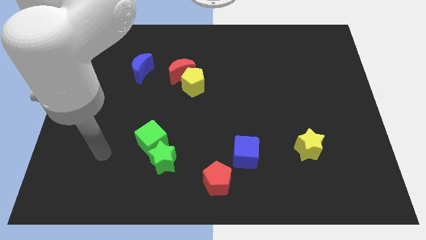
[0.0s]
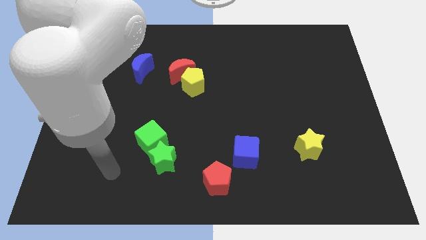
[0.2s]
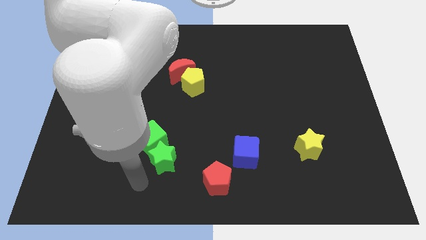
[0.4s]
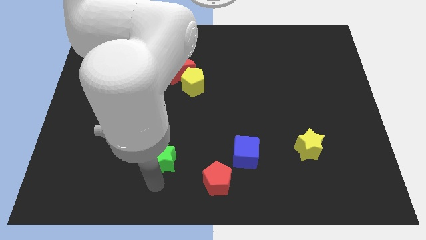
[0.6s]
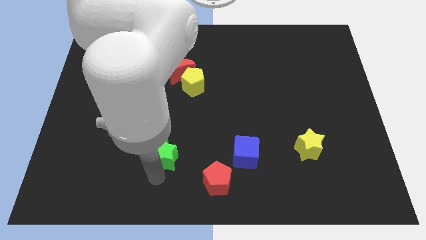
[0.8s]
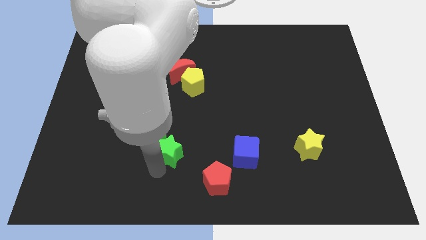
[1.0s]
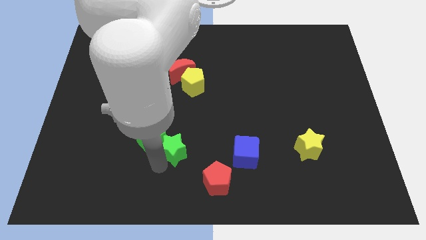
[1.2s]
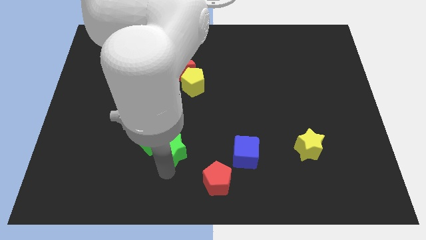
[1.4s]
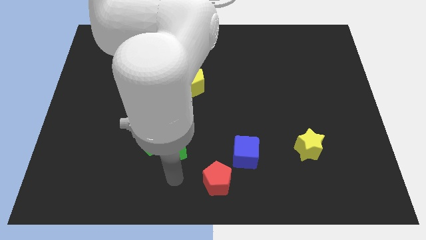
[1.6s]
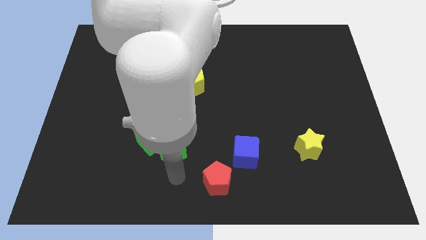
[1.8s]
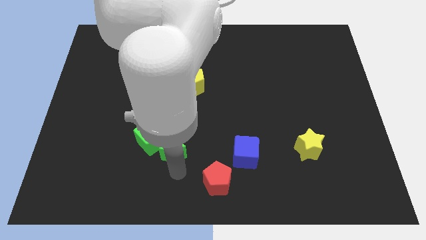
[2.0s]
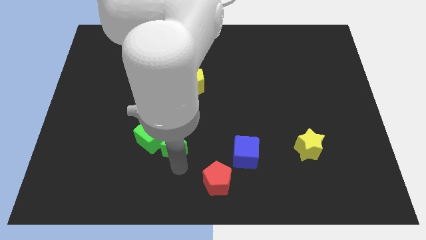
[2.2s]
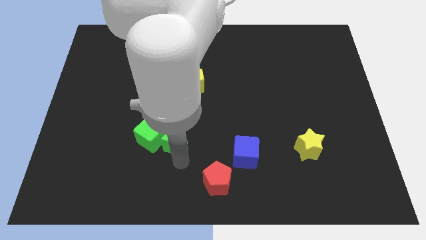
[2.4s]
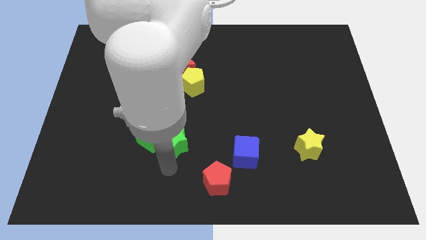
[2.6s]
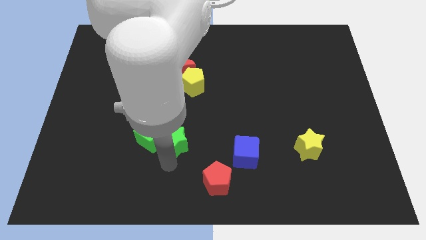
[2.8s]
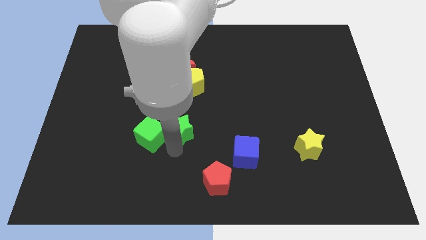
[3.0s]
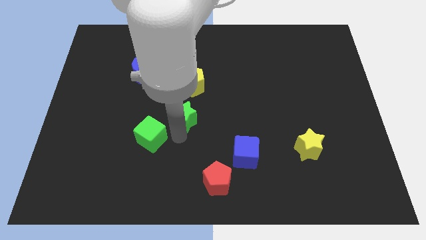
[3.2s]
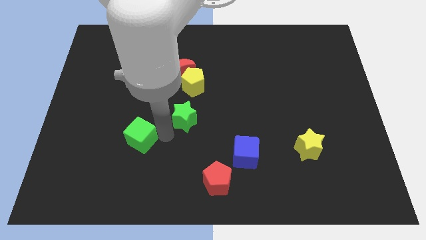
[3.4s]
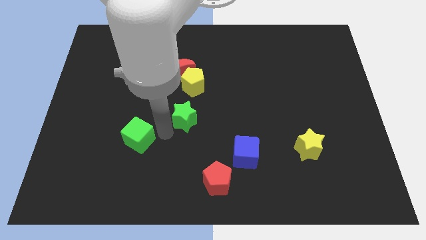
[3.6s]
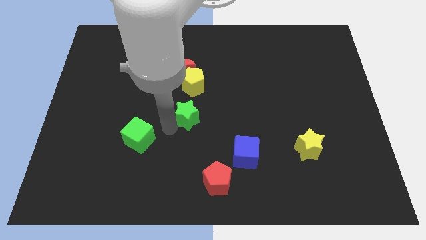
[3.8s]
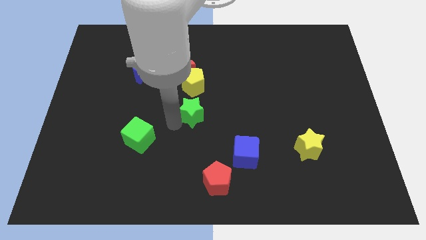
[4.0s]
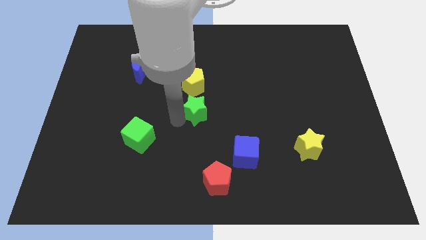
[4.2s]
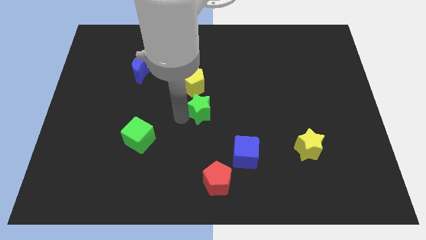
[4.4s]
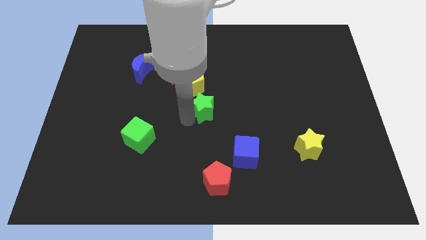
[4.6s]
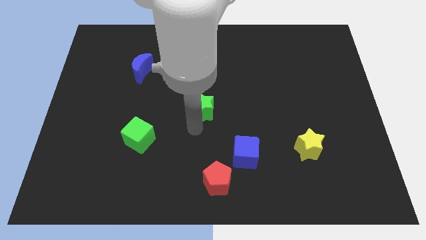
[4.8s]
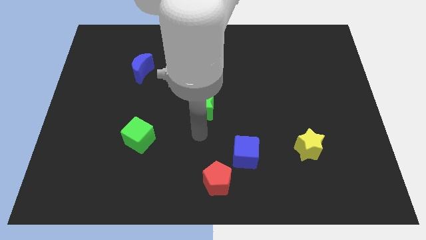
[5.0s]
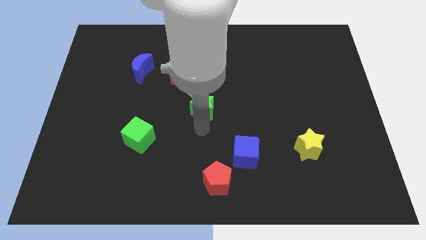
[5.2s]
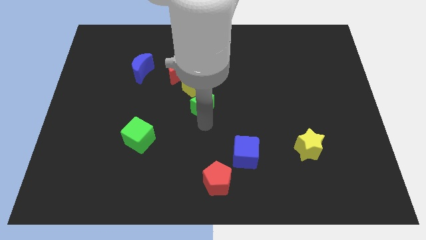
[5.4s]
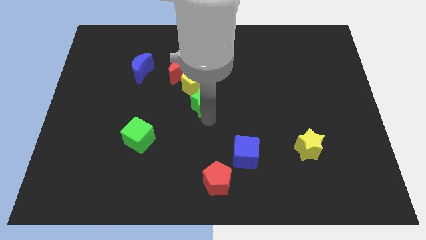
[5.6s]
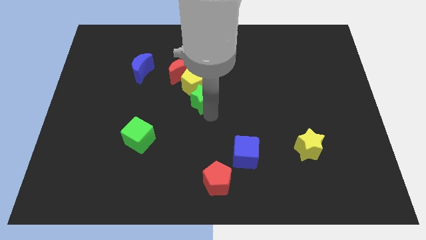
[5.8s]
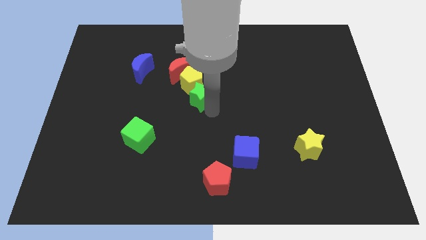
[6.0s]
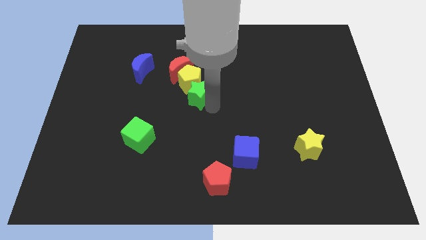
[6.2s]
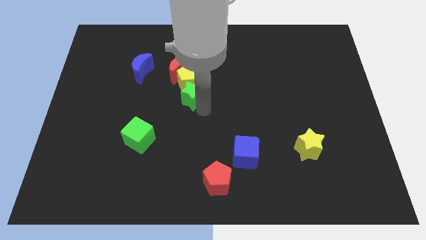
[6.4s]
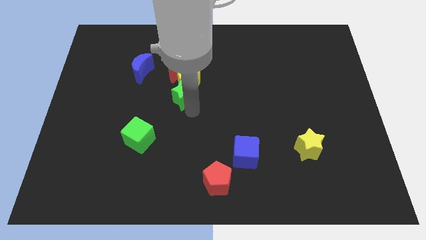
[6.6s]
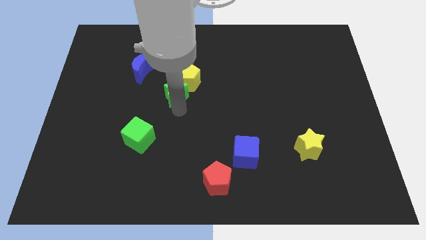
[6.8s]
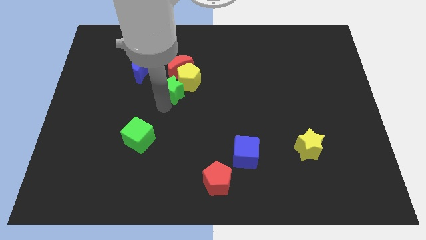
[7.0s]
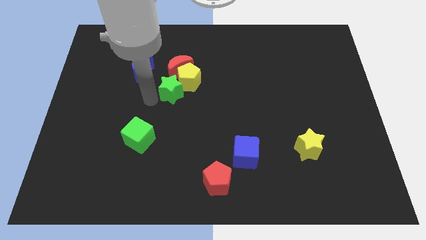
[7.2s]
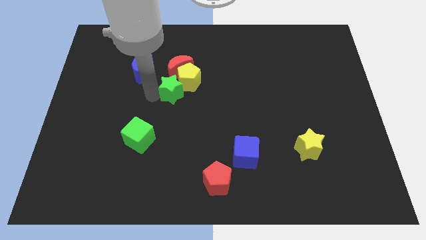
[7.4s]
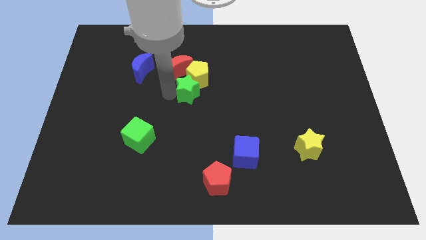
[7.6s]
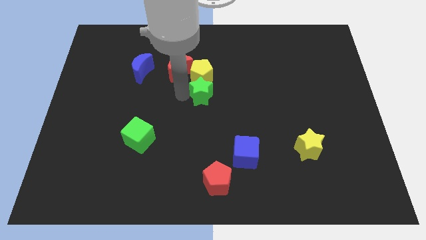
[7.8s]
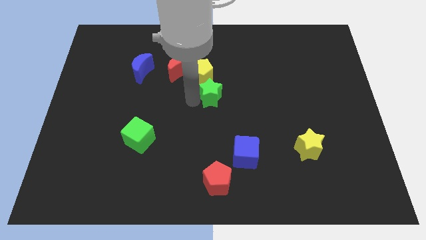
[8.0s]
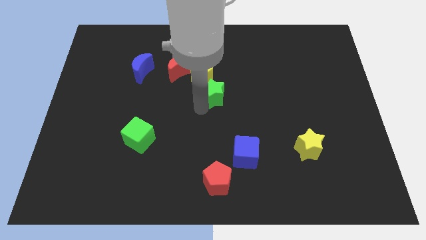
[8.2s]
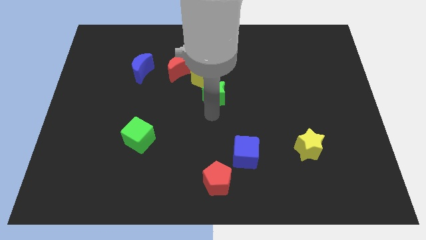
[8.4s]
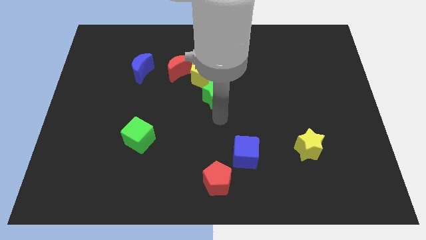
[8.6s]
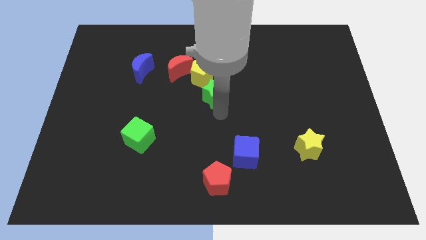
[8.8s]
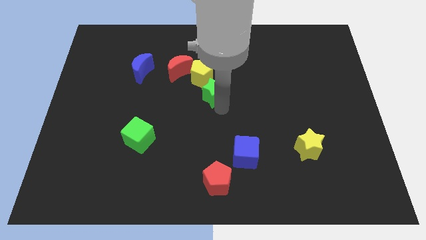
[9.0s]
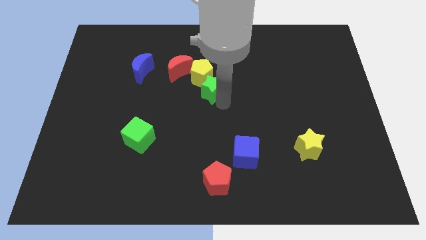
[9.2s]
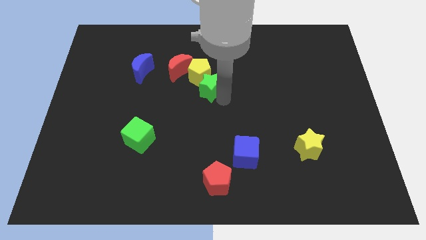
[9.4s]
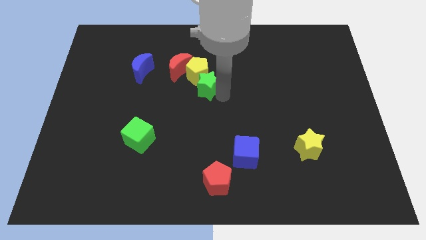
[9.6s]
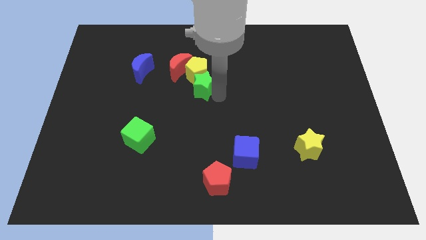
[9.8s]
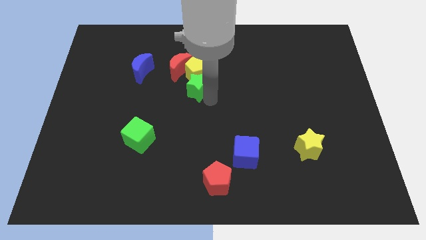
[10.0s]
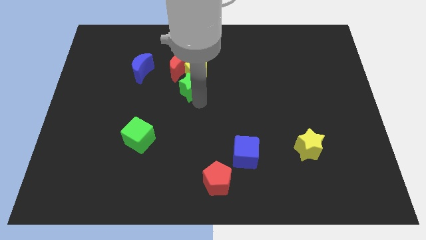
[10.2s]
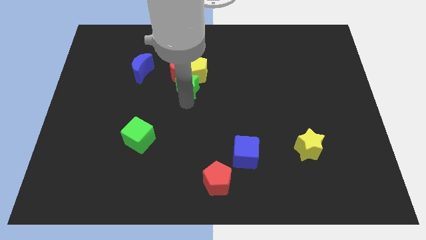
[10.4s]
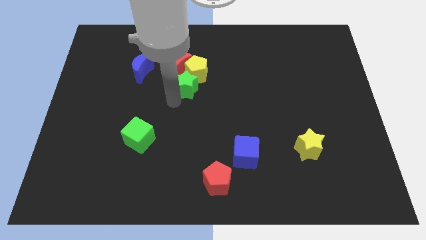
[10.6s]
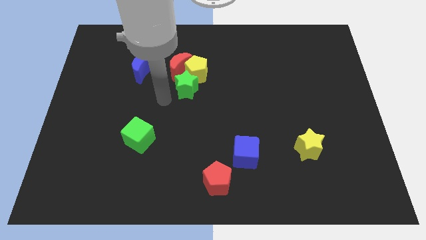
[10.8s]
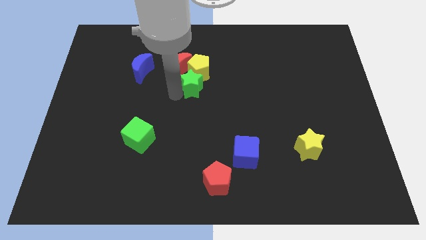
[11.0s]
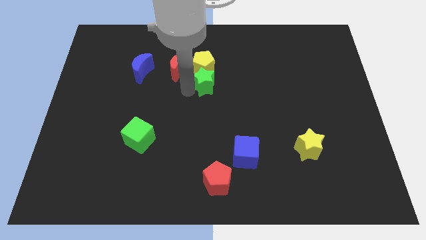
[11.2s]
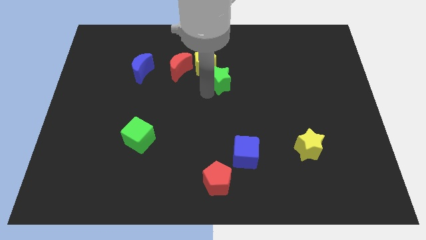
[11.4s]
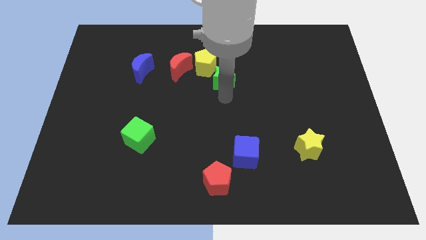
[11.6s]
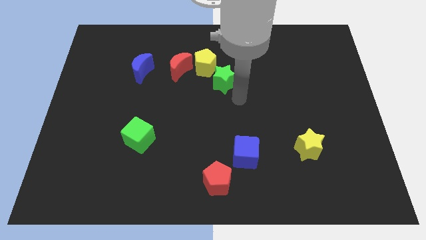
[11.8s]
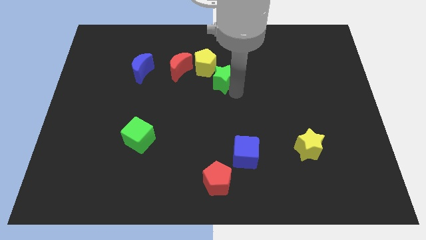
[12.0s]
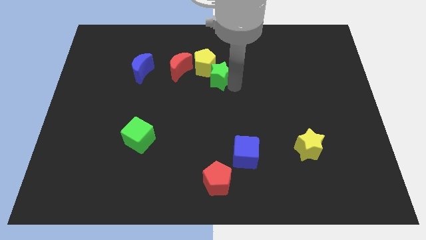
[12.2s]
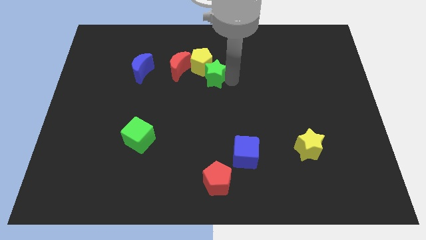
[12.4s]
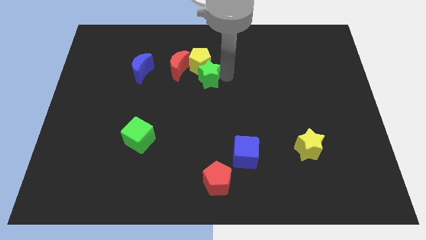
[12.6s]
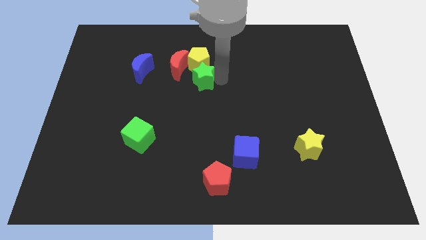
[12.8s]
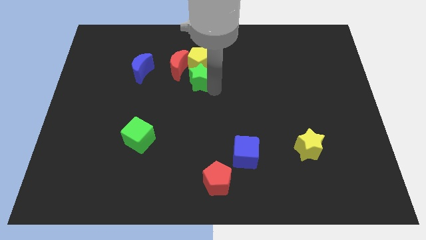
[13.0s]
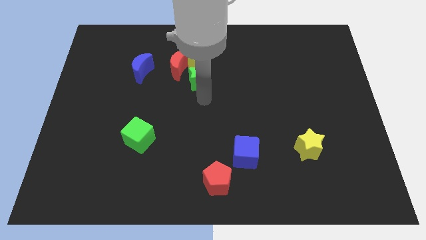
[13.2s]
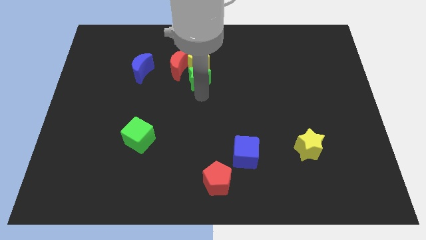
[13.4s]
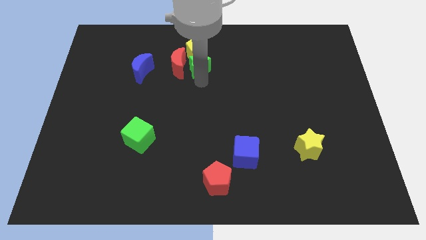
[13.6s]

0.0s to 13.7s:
push the green star to the top right of the red moon
